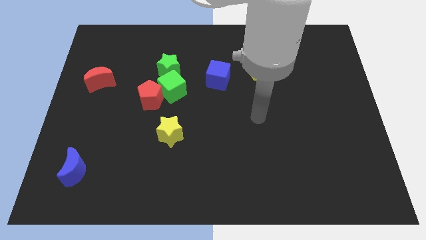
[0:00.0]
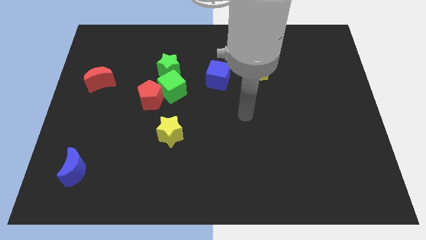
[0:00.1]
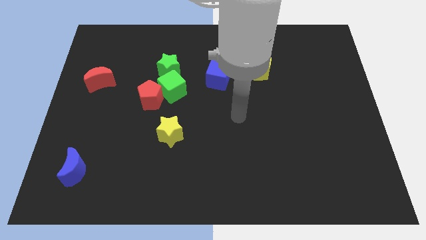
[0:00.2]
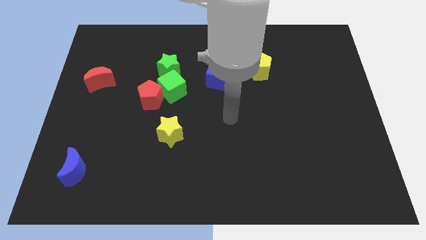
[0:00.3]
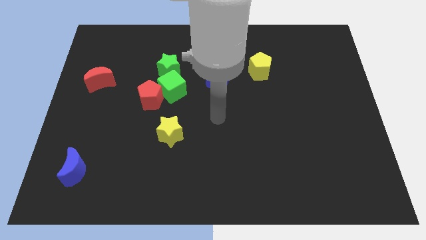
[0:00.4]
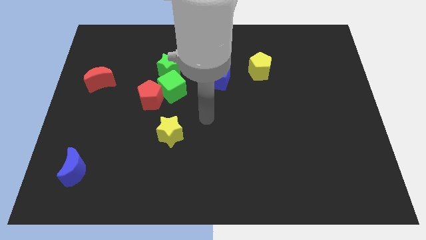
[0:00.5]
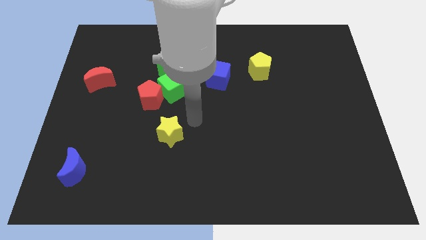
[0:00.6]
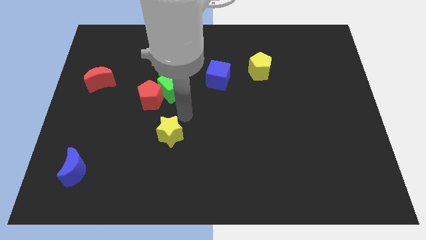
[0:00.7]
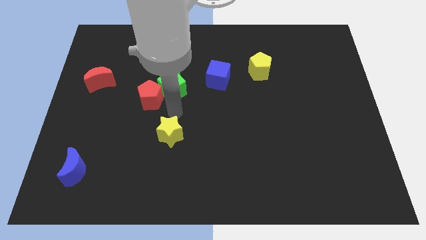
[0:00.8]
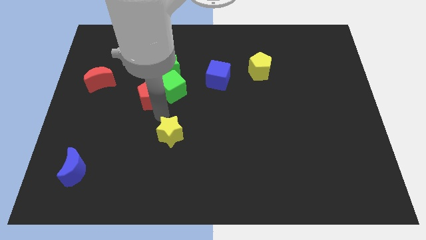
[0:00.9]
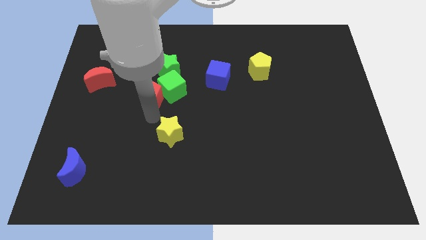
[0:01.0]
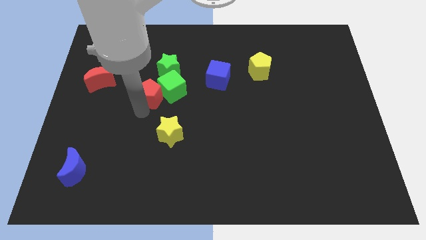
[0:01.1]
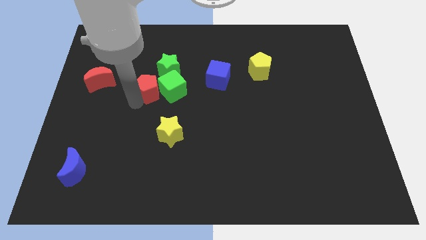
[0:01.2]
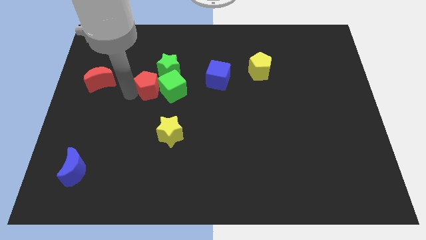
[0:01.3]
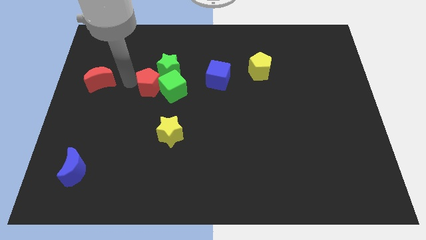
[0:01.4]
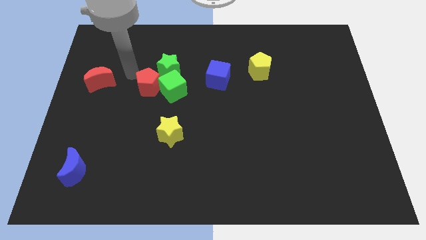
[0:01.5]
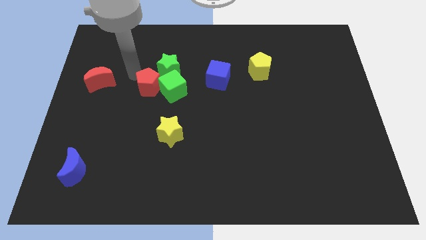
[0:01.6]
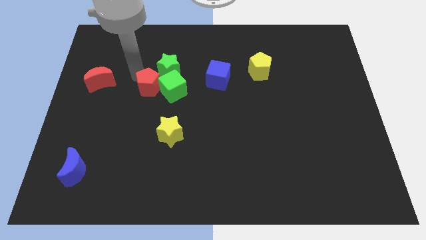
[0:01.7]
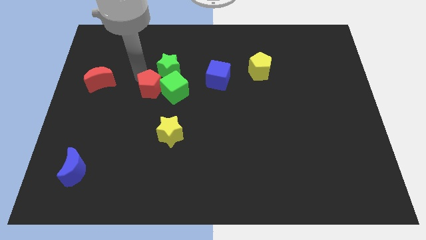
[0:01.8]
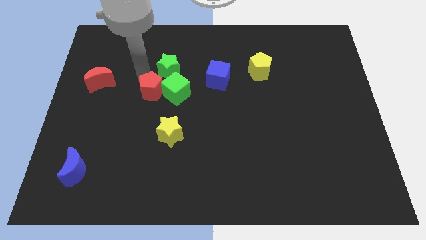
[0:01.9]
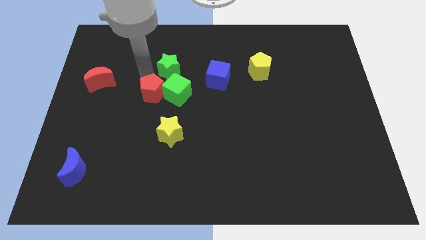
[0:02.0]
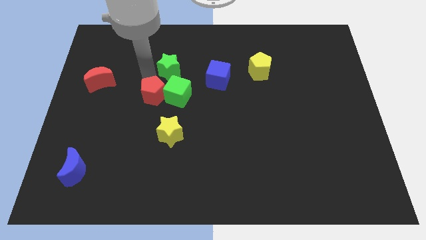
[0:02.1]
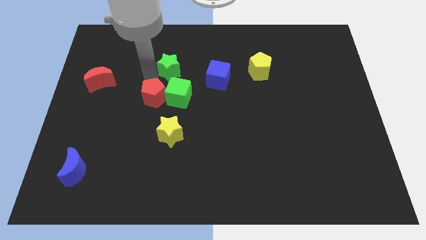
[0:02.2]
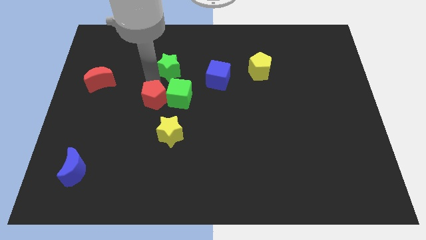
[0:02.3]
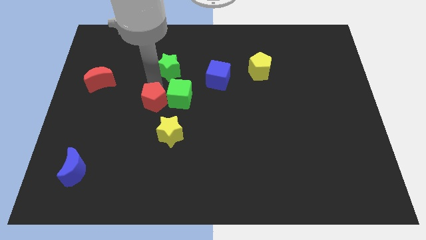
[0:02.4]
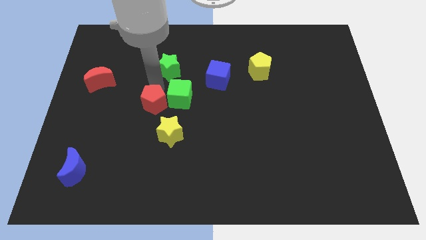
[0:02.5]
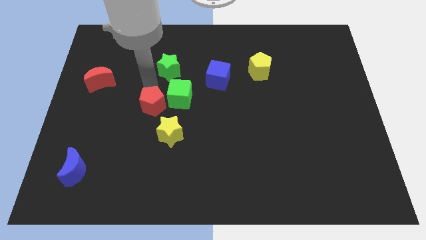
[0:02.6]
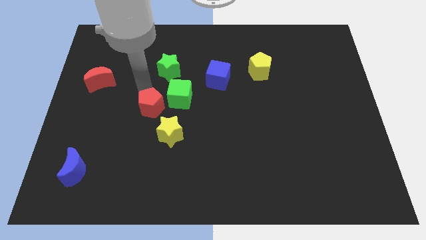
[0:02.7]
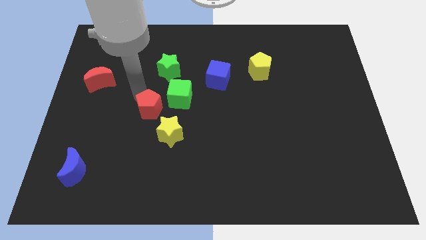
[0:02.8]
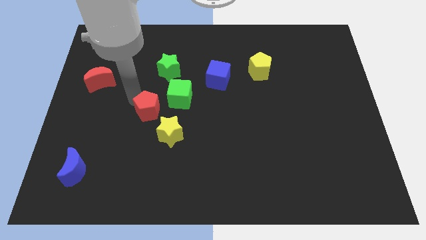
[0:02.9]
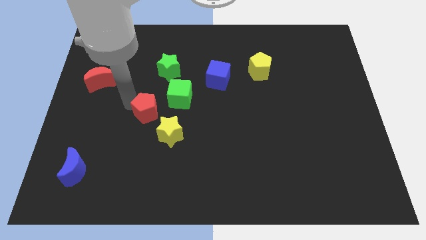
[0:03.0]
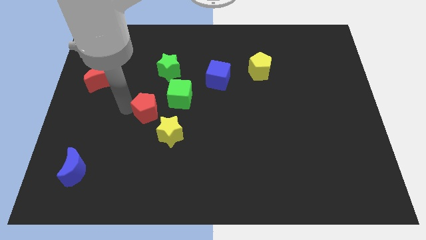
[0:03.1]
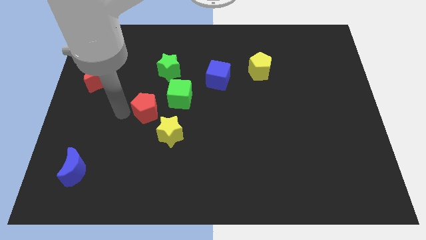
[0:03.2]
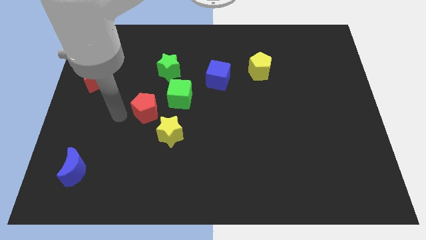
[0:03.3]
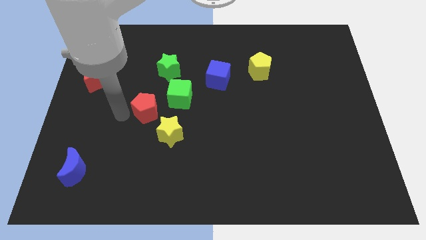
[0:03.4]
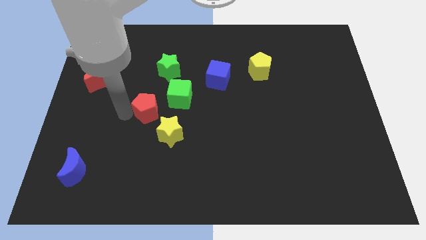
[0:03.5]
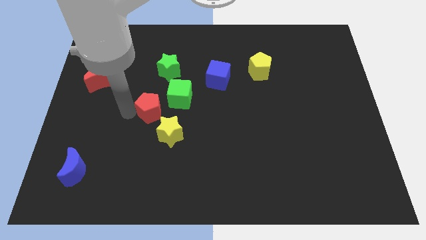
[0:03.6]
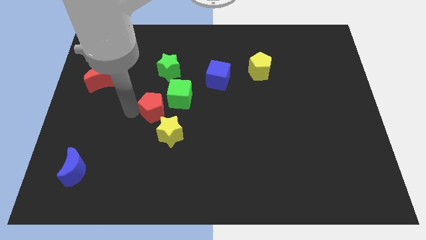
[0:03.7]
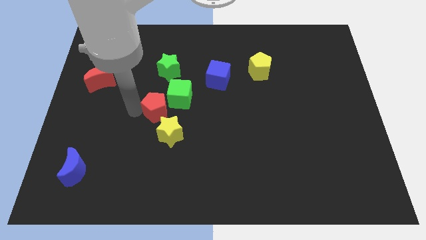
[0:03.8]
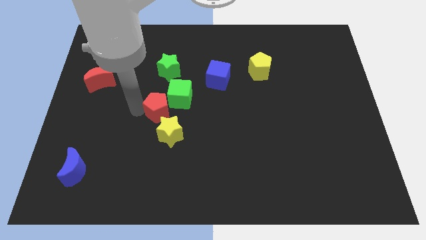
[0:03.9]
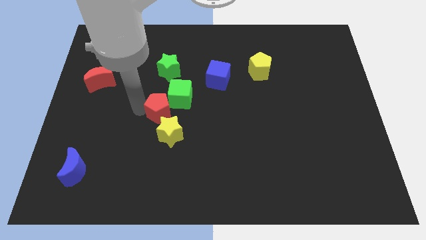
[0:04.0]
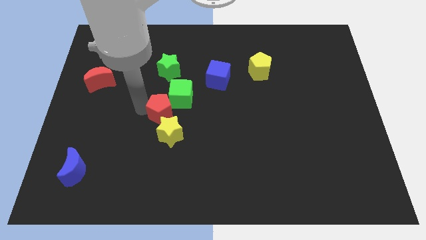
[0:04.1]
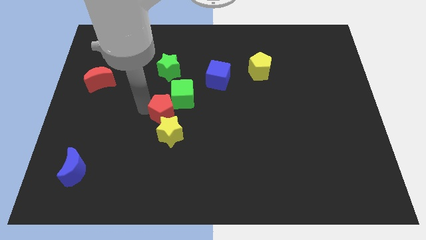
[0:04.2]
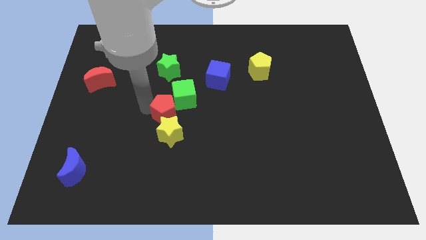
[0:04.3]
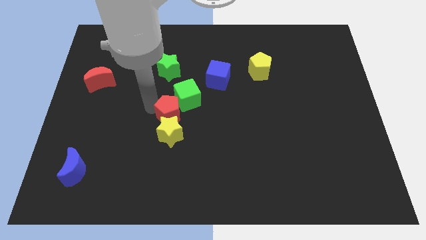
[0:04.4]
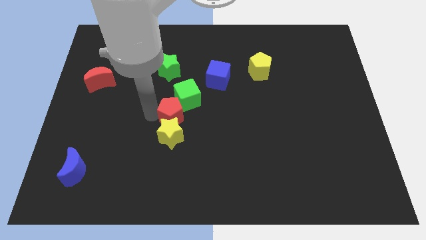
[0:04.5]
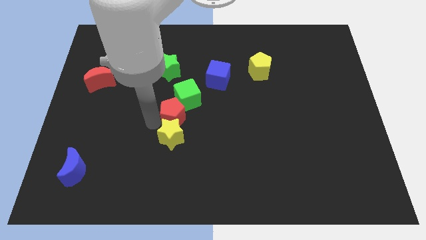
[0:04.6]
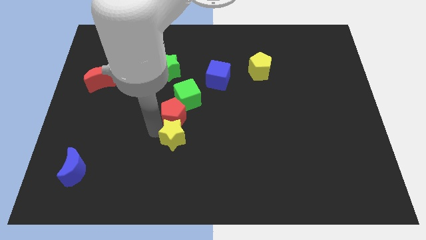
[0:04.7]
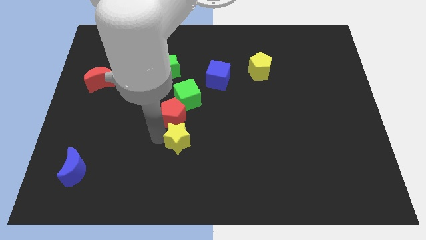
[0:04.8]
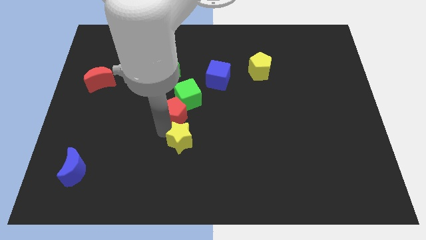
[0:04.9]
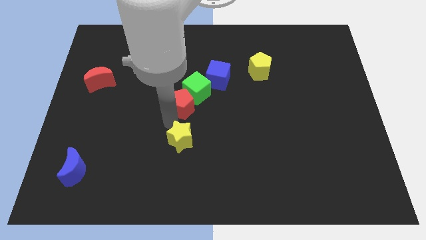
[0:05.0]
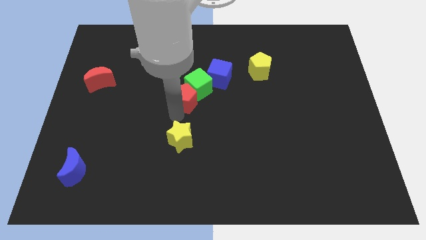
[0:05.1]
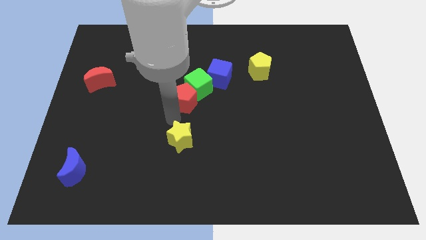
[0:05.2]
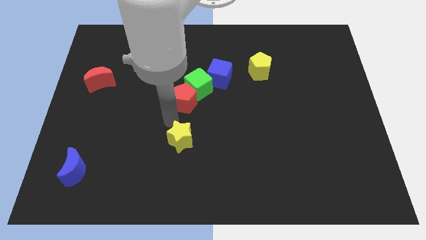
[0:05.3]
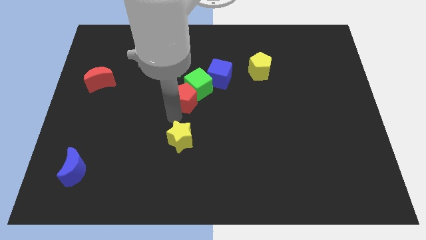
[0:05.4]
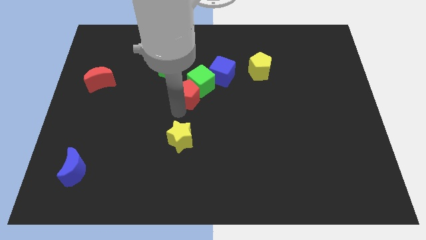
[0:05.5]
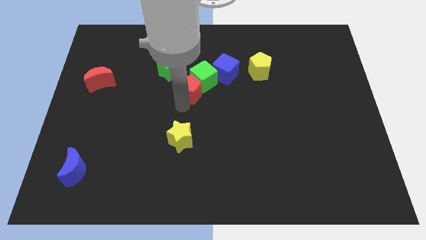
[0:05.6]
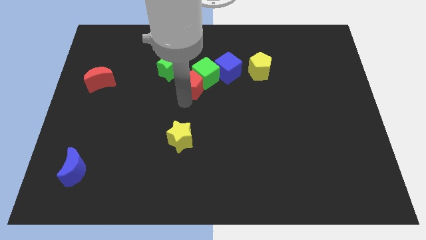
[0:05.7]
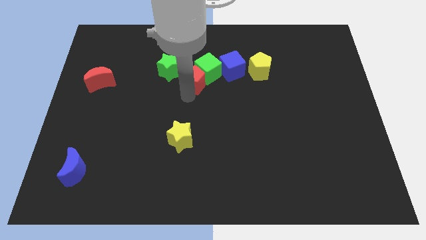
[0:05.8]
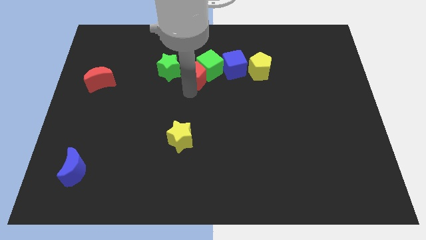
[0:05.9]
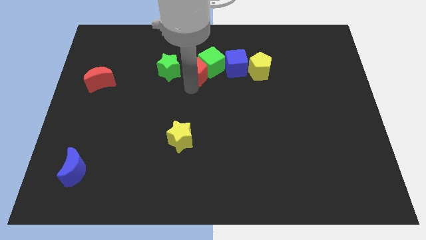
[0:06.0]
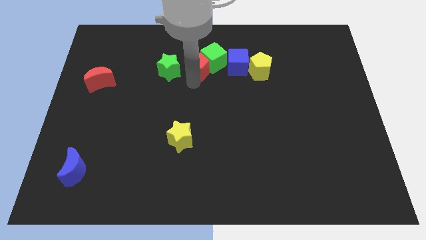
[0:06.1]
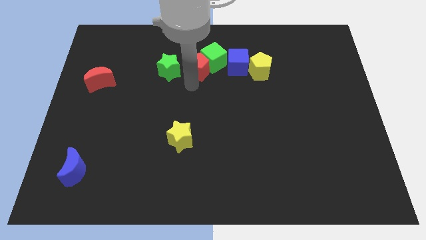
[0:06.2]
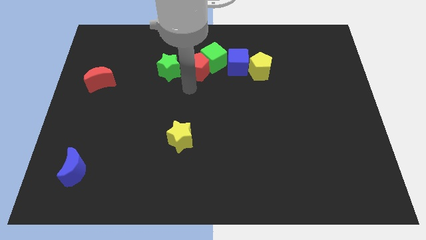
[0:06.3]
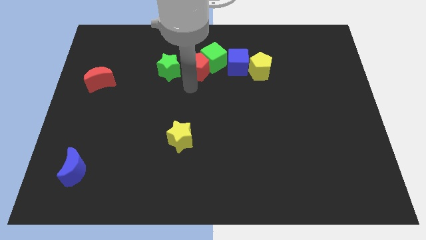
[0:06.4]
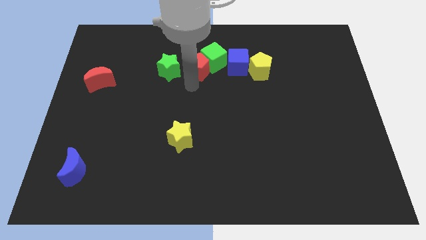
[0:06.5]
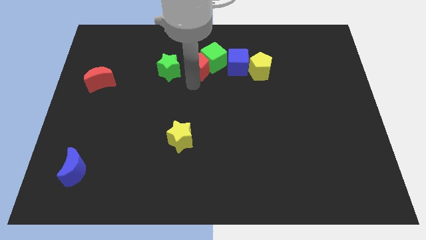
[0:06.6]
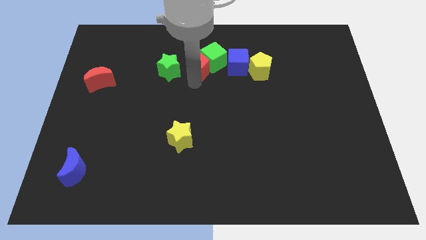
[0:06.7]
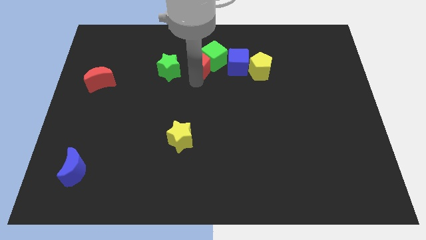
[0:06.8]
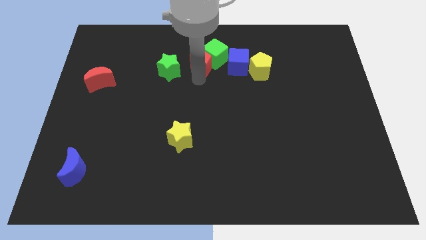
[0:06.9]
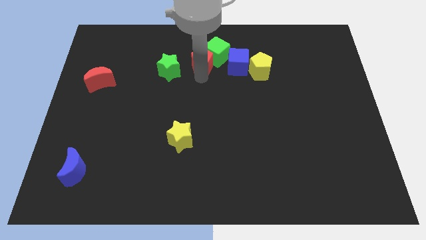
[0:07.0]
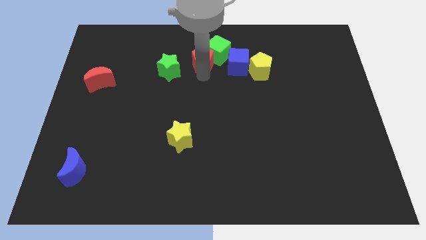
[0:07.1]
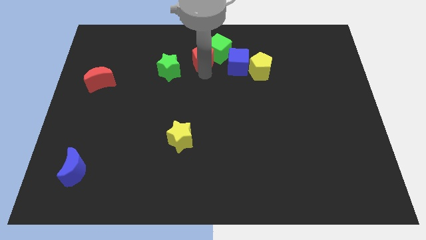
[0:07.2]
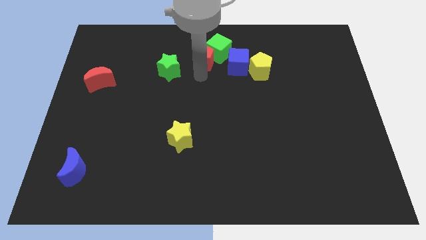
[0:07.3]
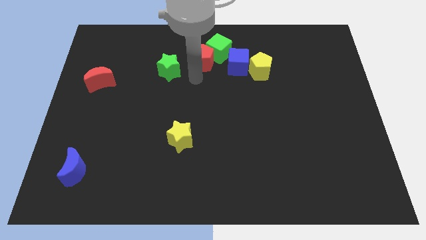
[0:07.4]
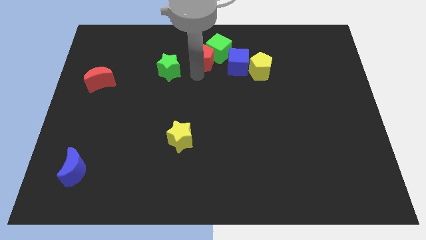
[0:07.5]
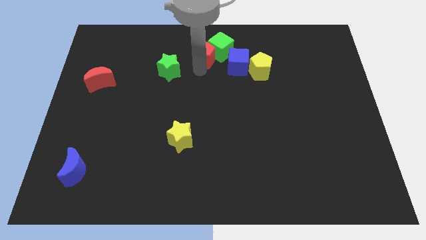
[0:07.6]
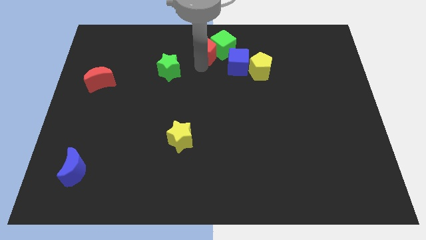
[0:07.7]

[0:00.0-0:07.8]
push the red pentagon to the top side
